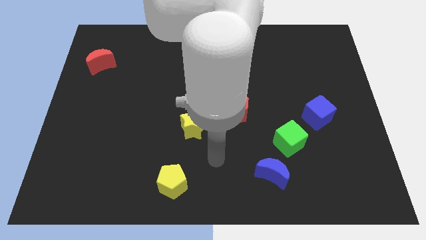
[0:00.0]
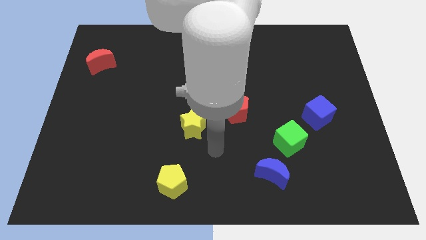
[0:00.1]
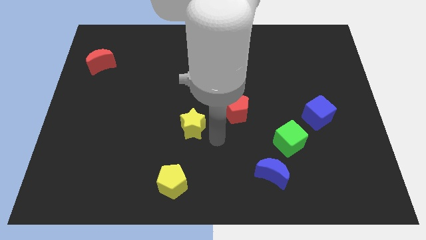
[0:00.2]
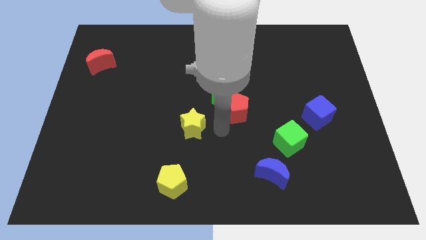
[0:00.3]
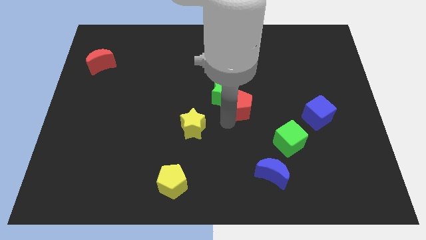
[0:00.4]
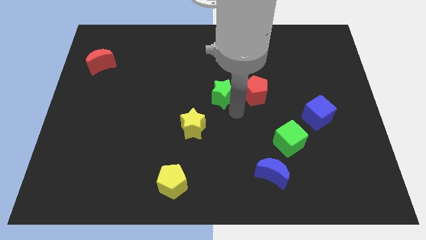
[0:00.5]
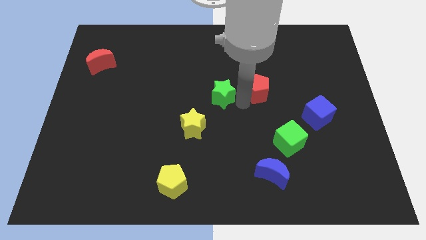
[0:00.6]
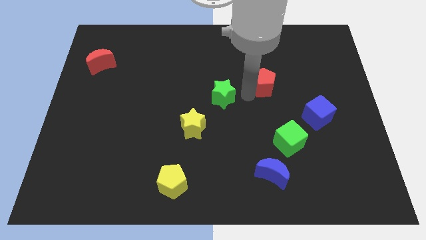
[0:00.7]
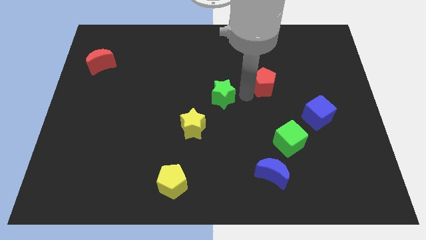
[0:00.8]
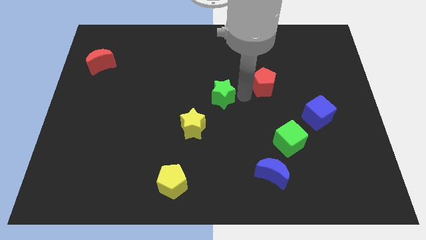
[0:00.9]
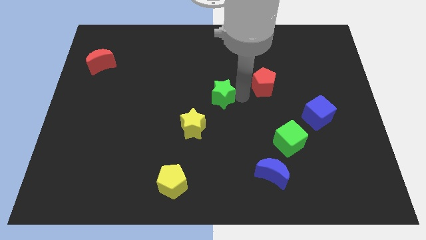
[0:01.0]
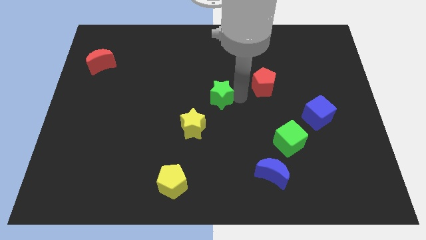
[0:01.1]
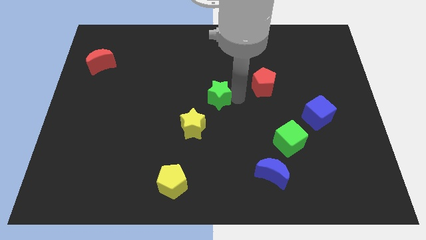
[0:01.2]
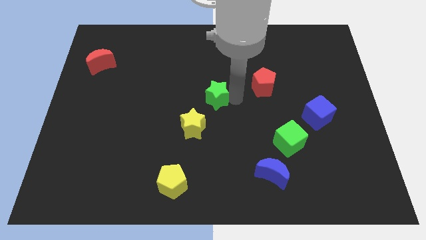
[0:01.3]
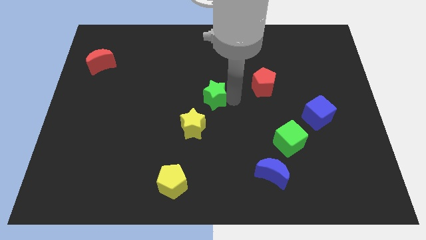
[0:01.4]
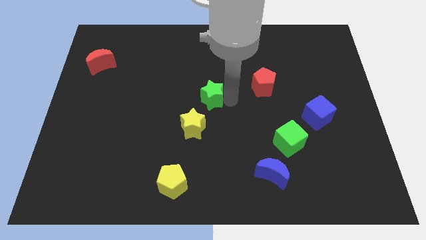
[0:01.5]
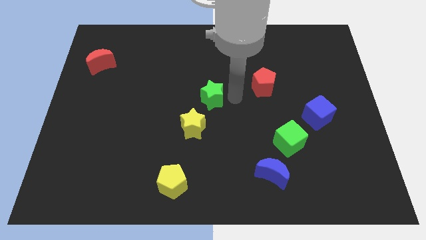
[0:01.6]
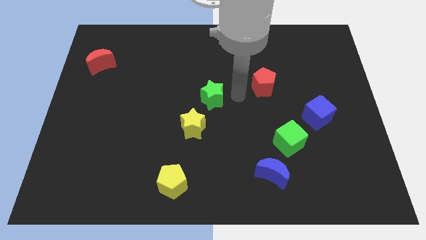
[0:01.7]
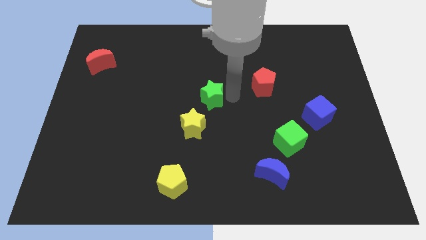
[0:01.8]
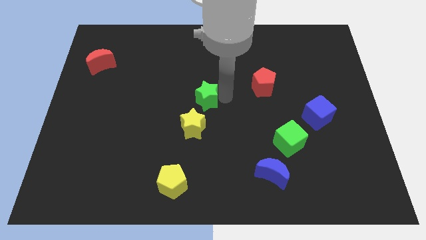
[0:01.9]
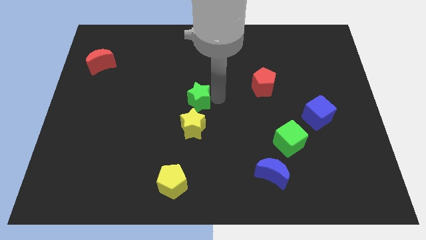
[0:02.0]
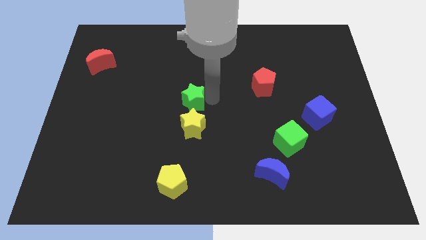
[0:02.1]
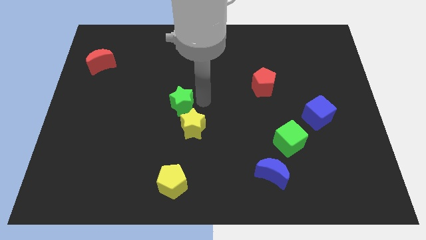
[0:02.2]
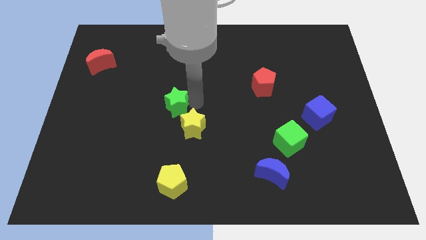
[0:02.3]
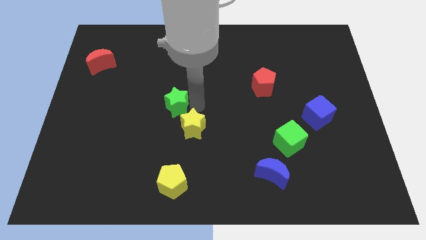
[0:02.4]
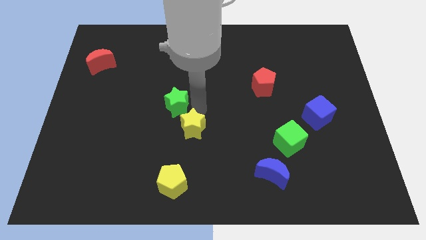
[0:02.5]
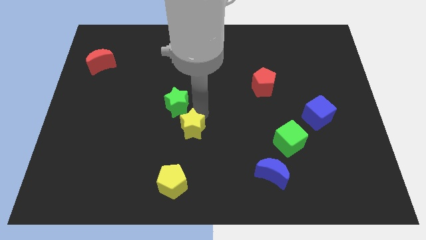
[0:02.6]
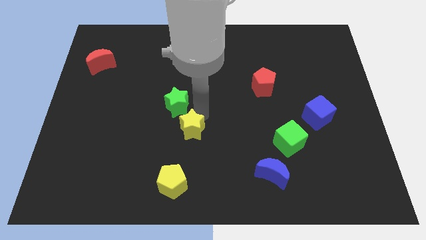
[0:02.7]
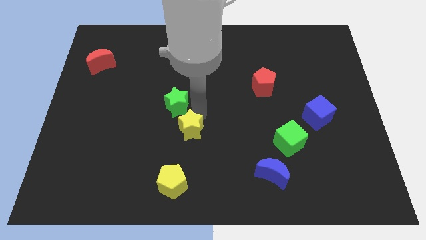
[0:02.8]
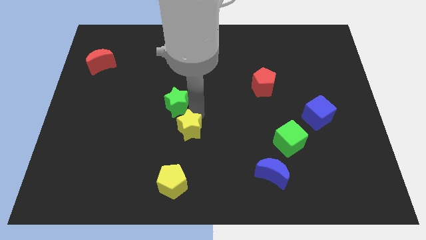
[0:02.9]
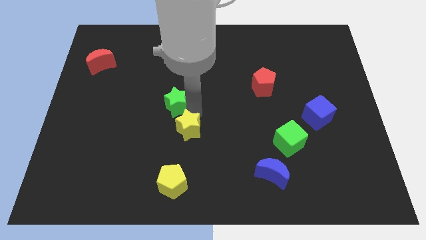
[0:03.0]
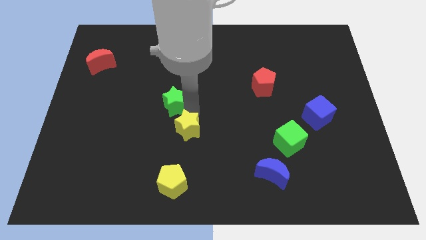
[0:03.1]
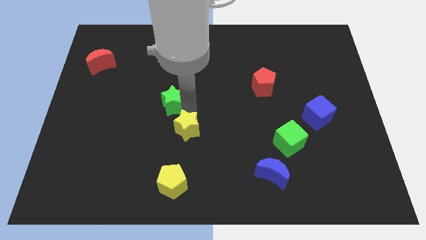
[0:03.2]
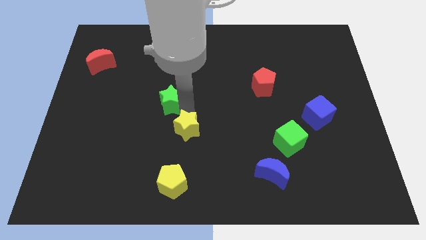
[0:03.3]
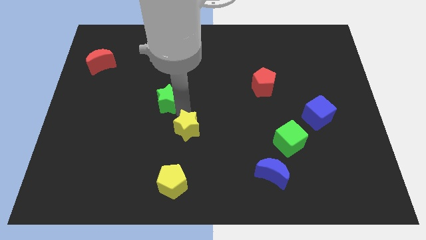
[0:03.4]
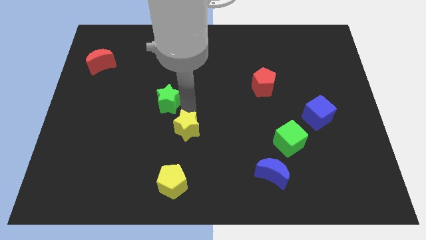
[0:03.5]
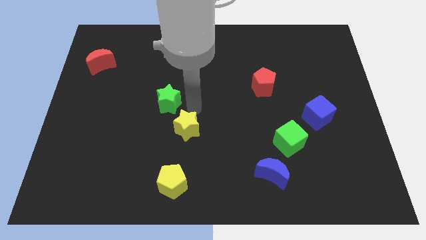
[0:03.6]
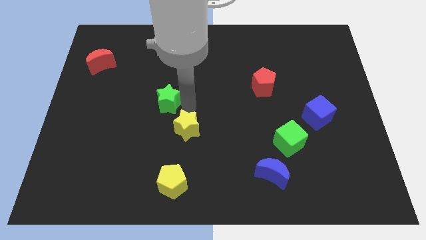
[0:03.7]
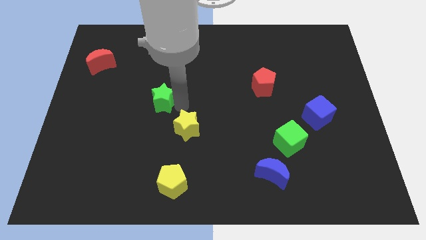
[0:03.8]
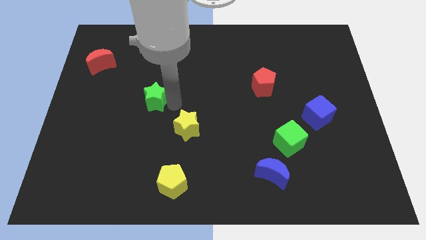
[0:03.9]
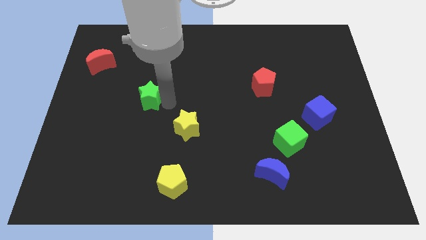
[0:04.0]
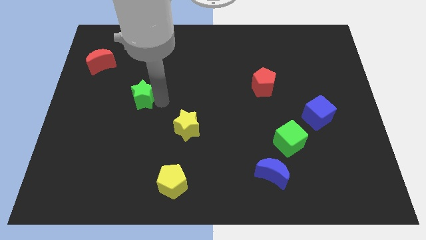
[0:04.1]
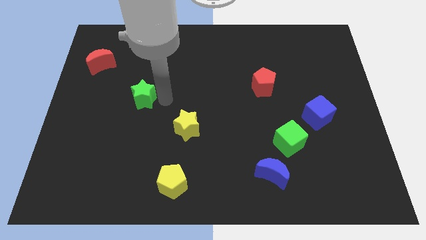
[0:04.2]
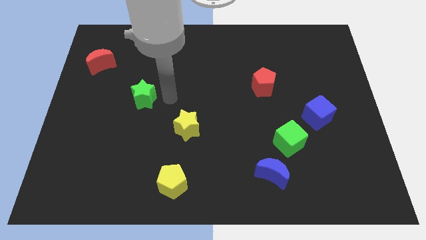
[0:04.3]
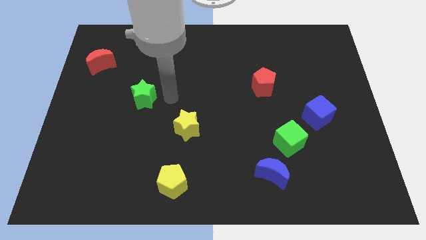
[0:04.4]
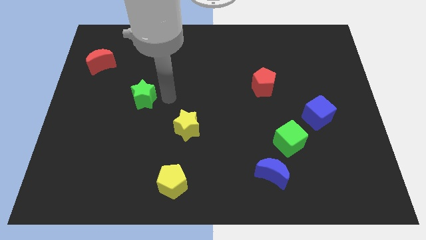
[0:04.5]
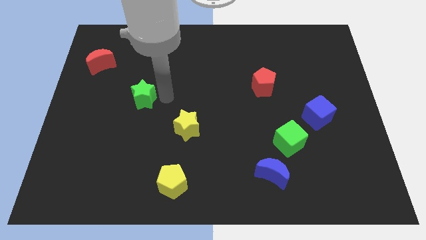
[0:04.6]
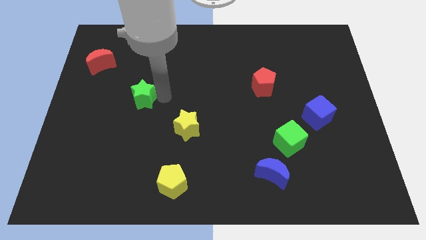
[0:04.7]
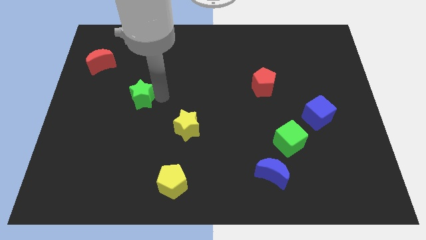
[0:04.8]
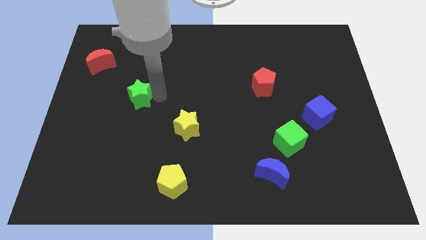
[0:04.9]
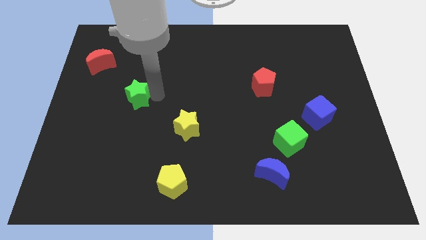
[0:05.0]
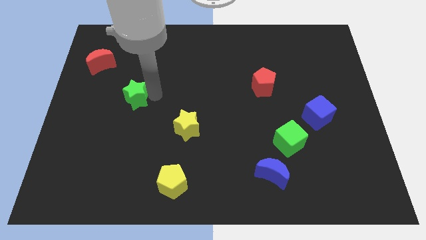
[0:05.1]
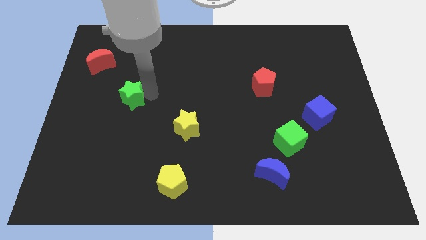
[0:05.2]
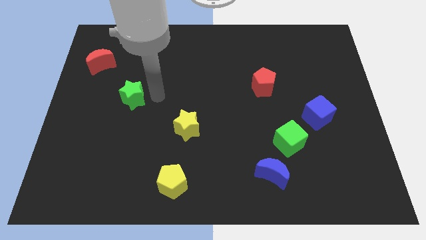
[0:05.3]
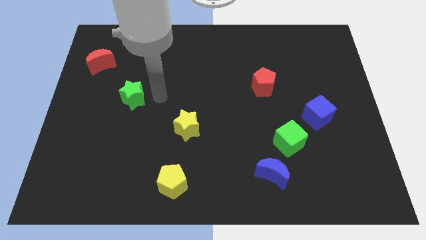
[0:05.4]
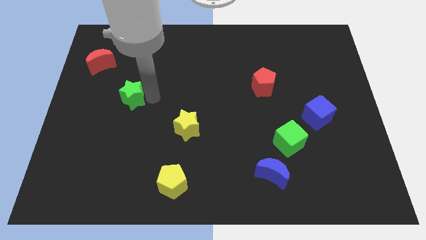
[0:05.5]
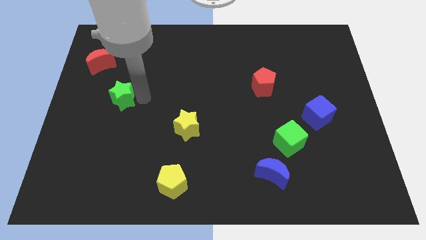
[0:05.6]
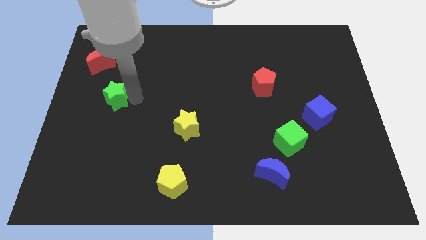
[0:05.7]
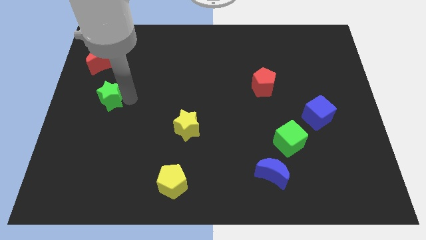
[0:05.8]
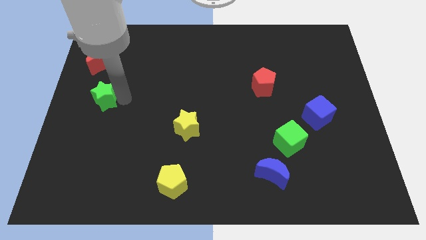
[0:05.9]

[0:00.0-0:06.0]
slide the green star to the left side

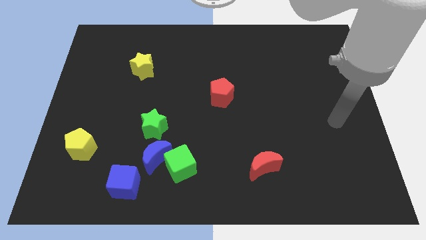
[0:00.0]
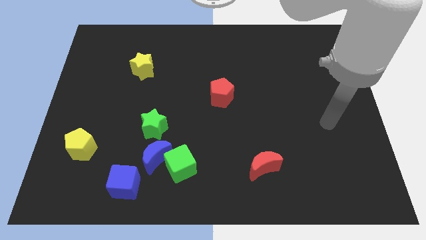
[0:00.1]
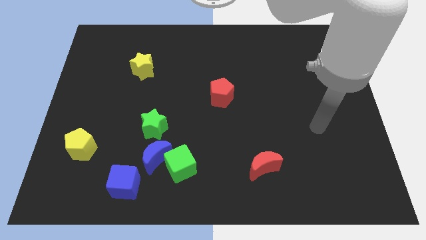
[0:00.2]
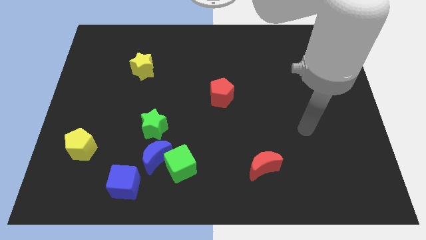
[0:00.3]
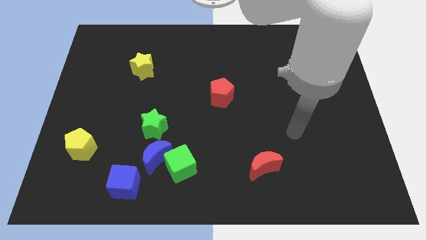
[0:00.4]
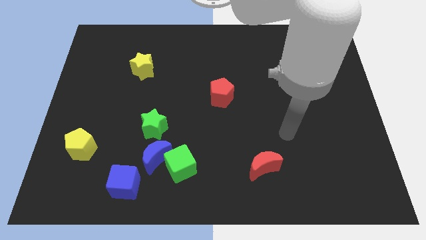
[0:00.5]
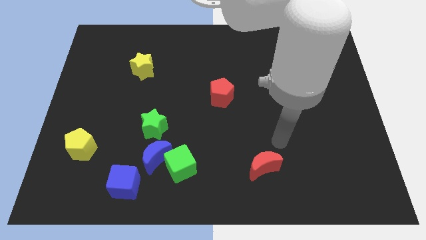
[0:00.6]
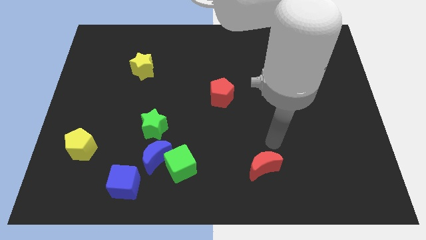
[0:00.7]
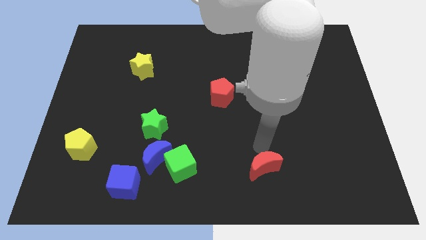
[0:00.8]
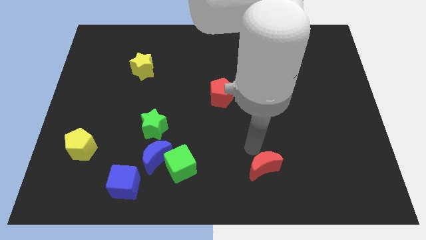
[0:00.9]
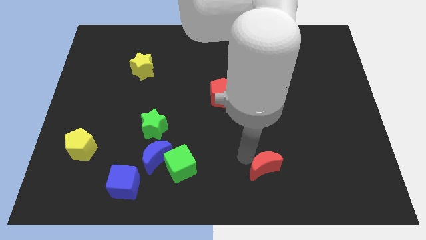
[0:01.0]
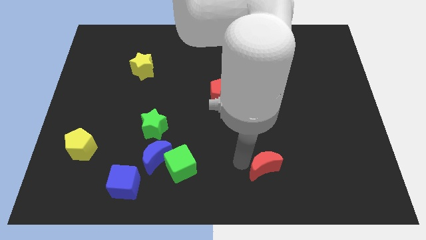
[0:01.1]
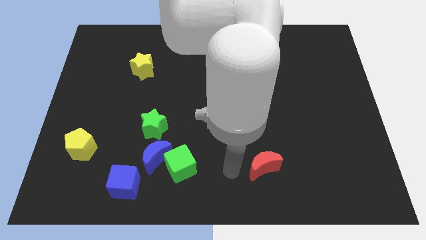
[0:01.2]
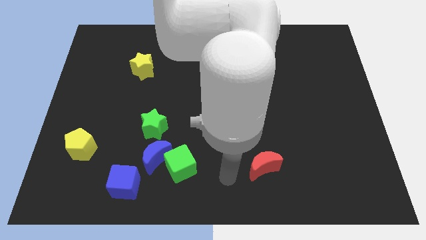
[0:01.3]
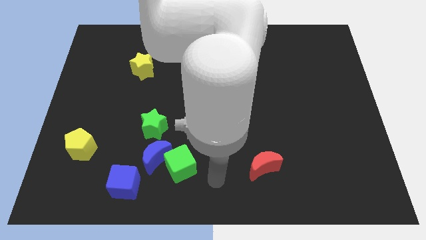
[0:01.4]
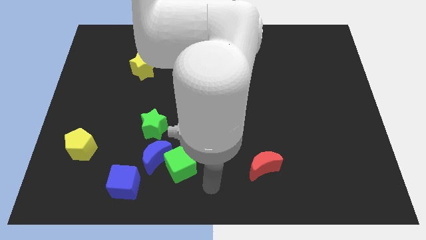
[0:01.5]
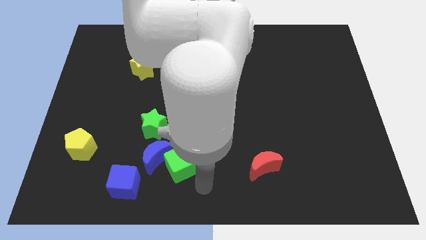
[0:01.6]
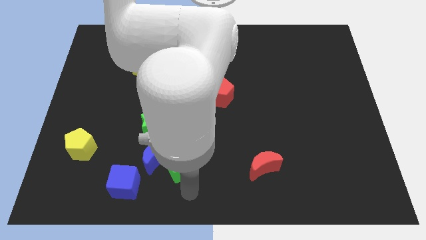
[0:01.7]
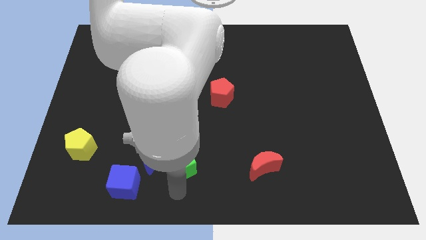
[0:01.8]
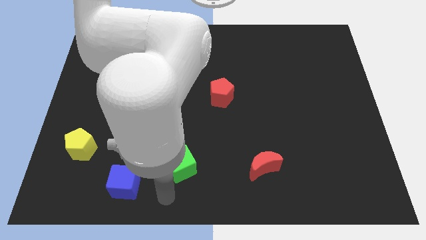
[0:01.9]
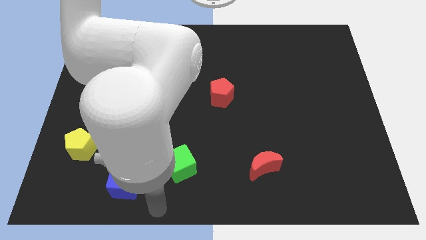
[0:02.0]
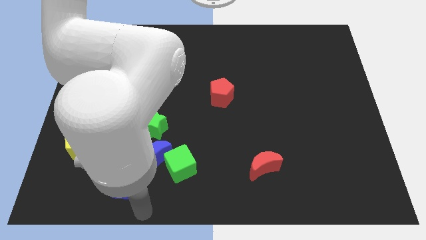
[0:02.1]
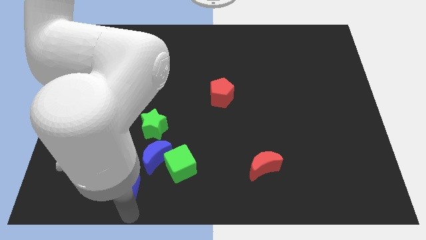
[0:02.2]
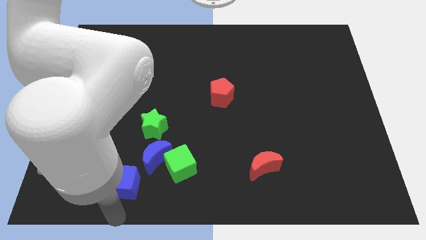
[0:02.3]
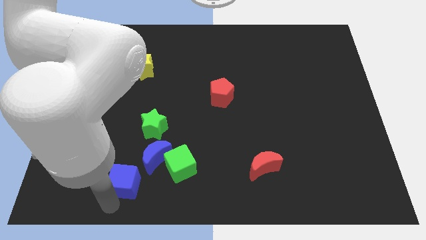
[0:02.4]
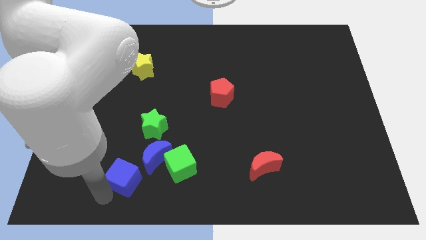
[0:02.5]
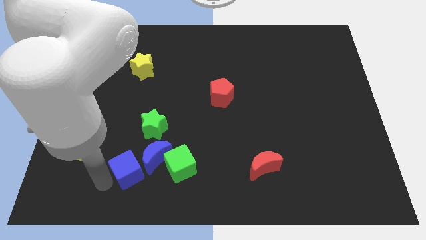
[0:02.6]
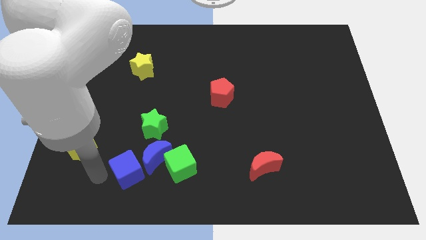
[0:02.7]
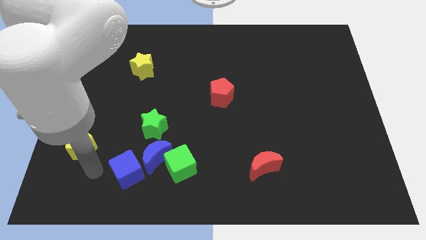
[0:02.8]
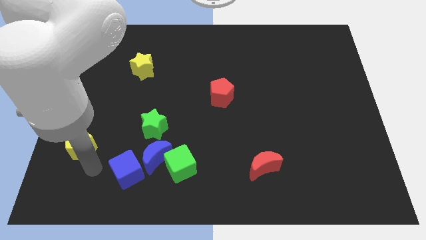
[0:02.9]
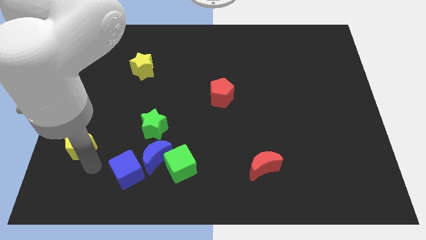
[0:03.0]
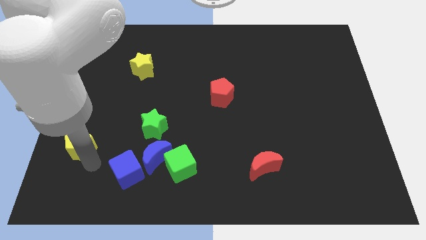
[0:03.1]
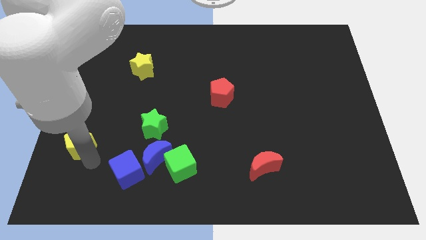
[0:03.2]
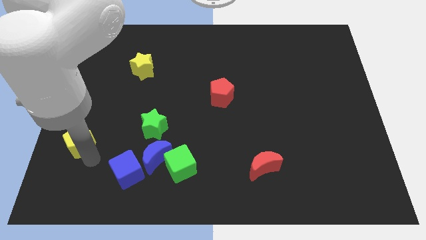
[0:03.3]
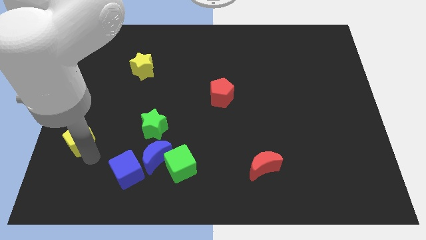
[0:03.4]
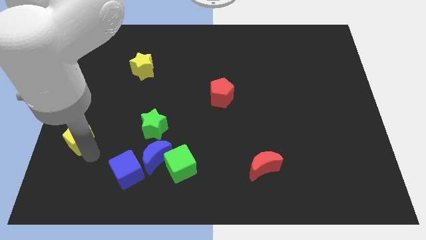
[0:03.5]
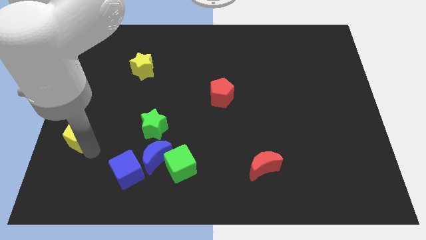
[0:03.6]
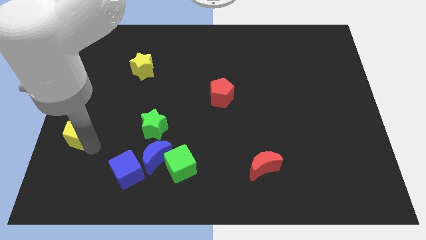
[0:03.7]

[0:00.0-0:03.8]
push the yellow pentagon to the left side of the board
